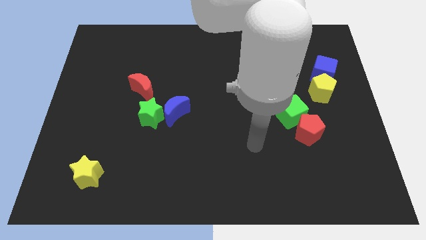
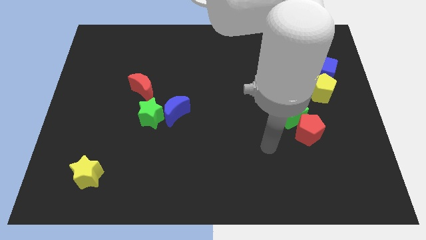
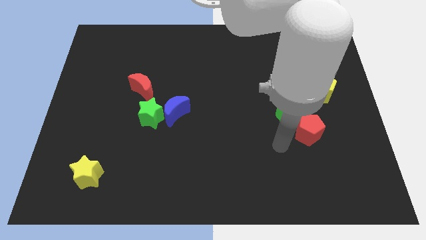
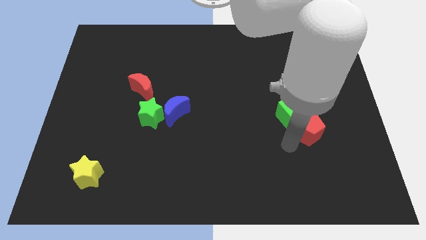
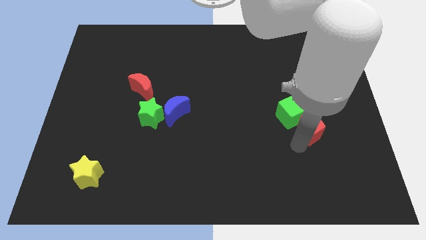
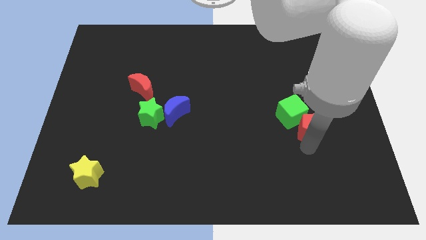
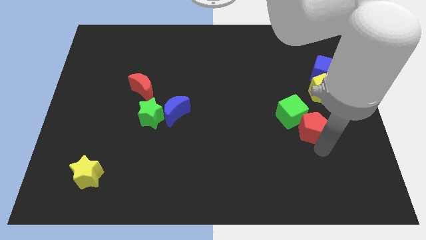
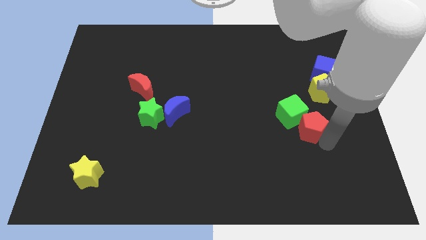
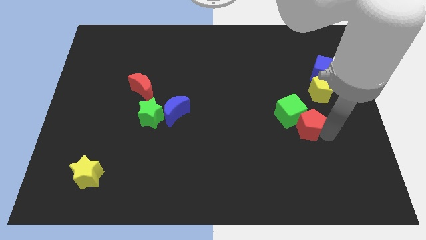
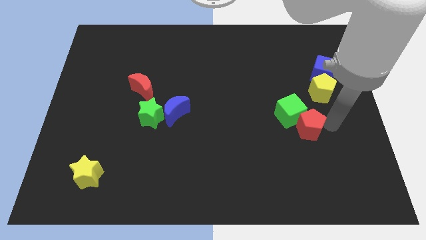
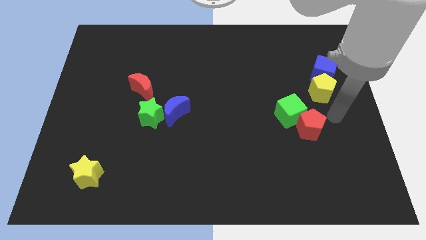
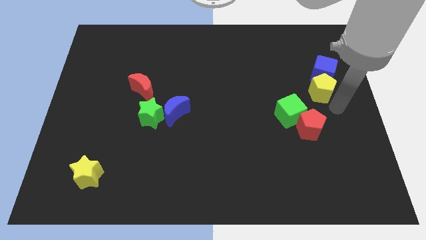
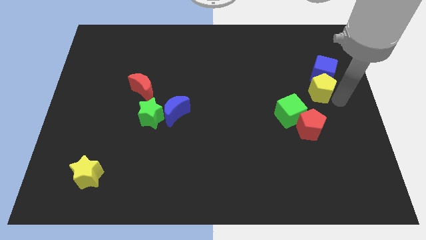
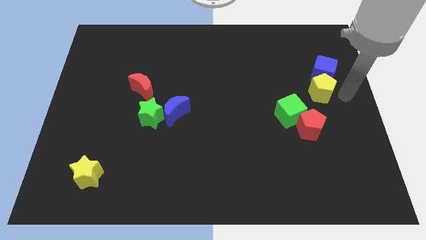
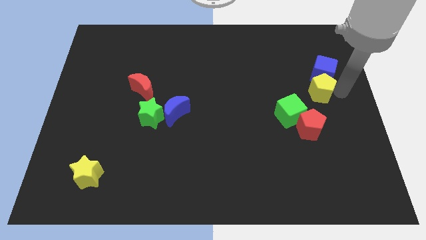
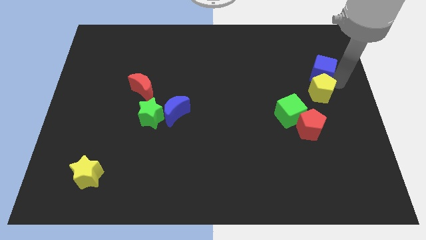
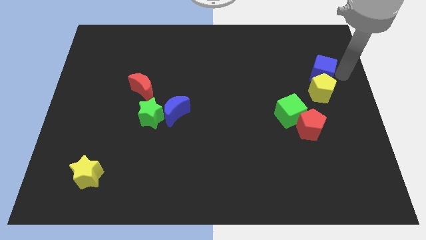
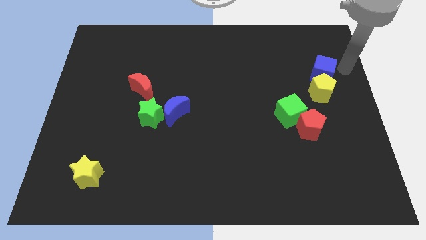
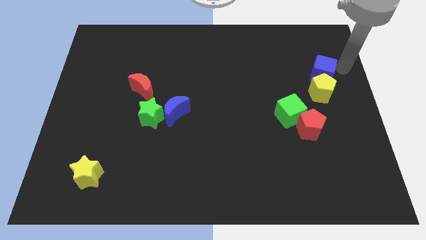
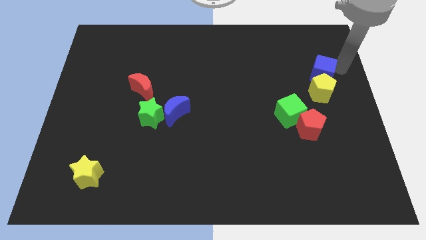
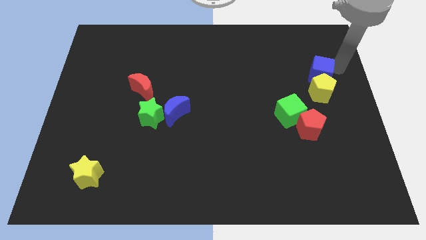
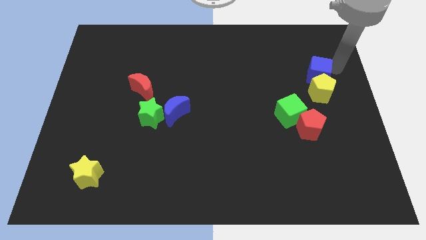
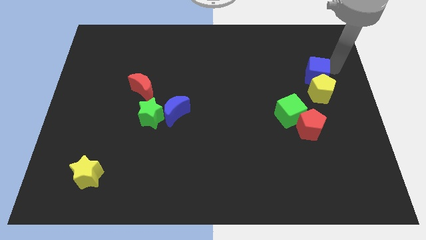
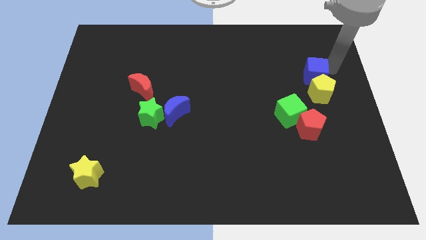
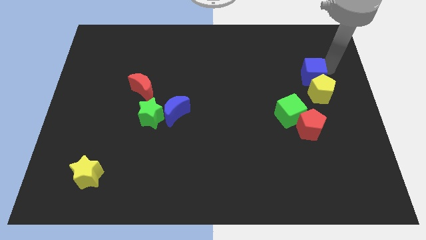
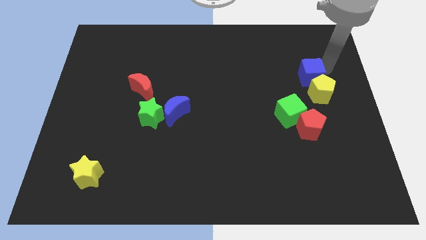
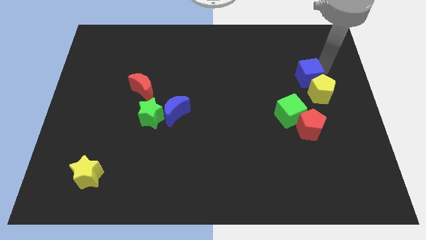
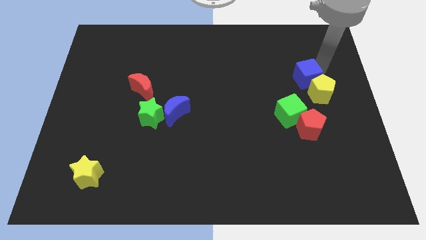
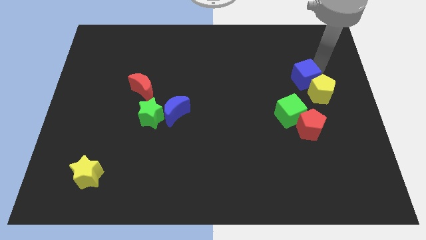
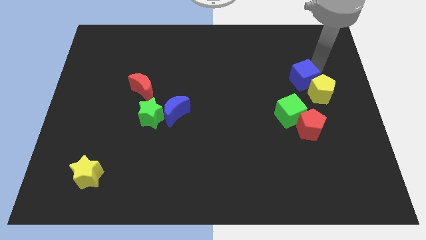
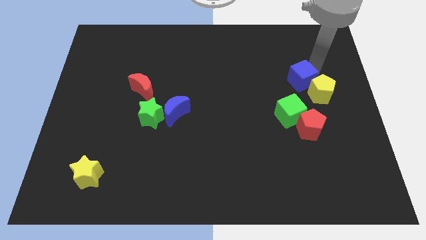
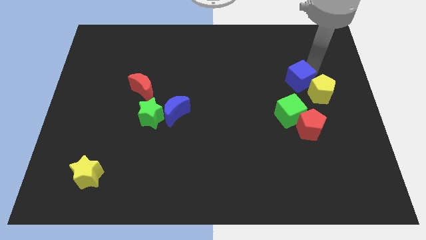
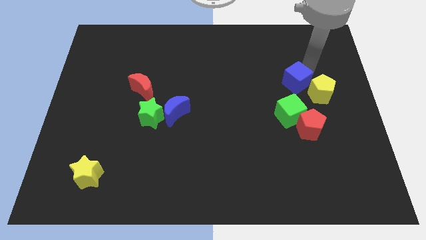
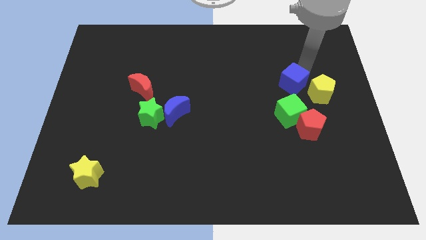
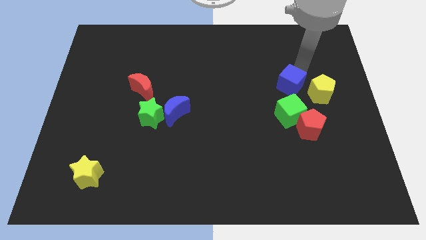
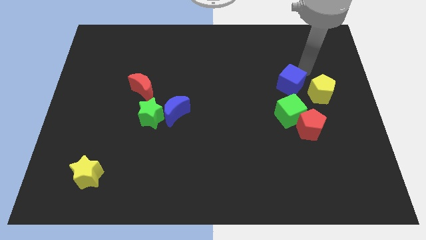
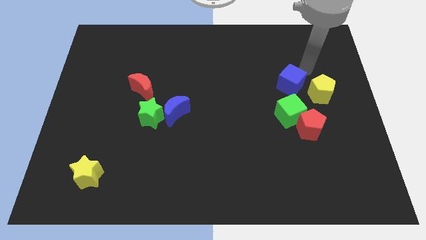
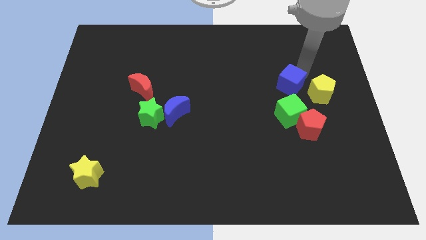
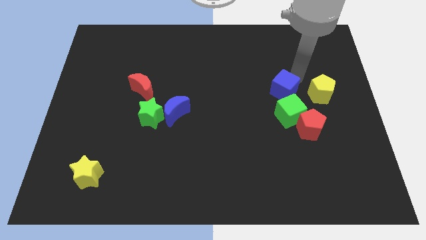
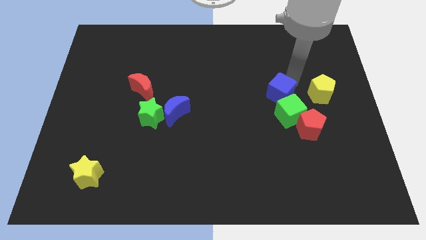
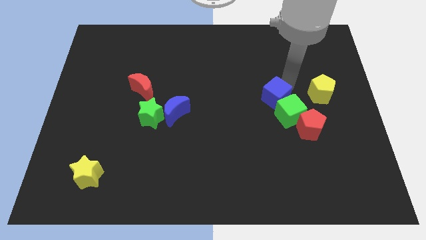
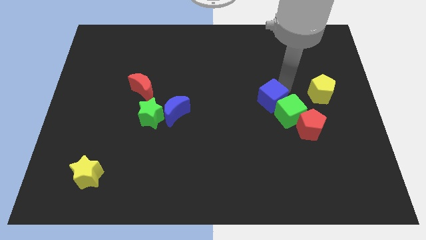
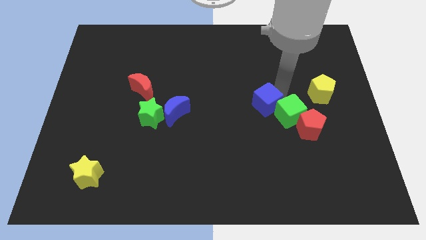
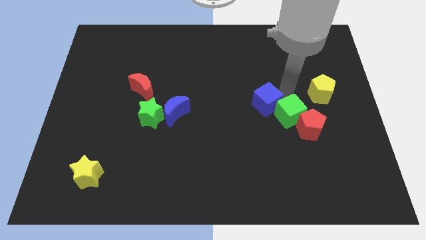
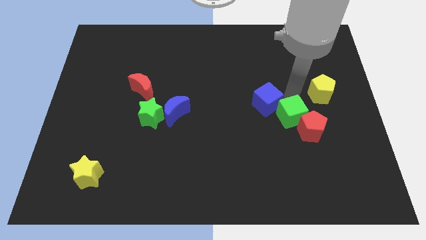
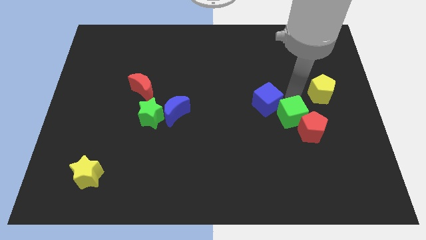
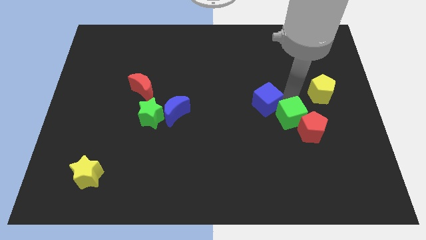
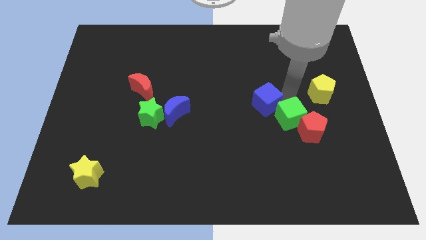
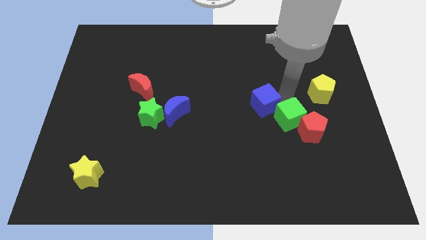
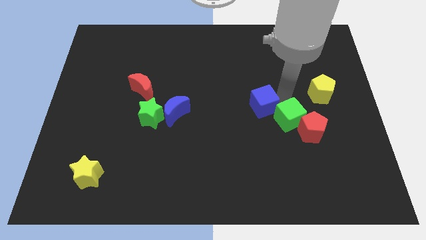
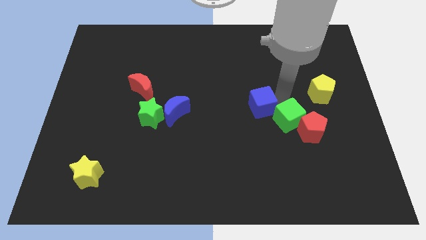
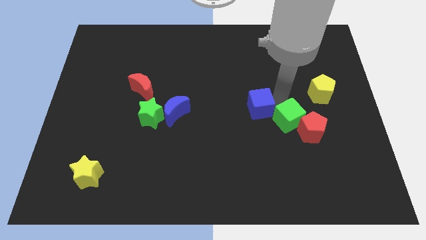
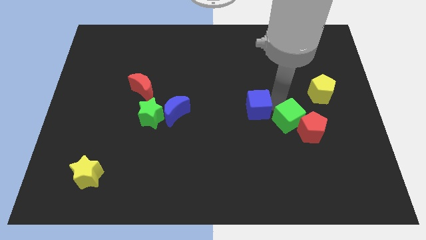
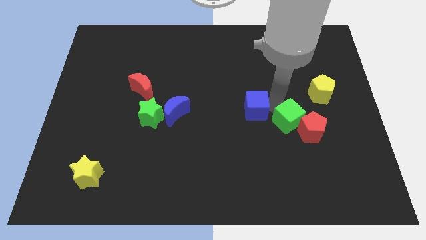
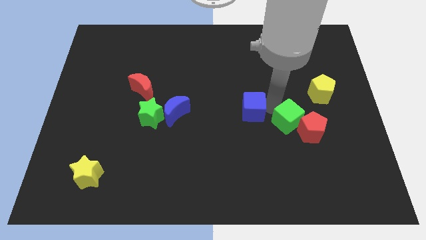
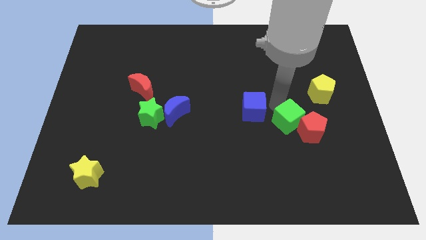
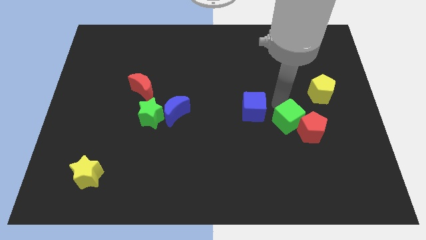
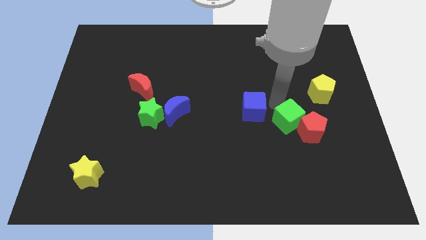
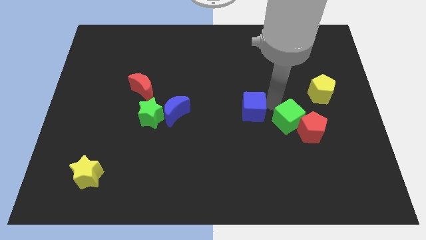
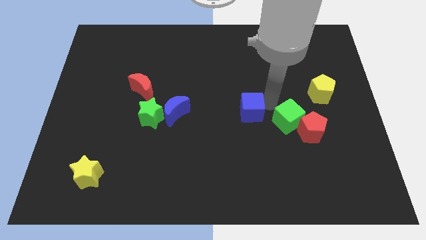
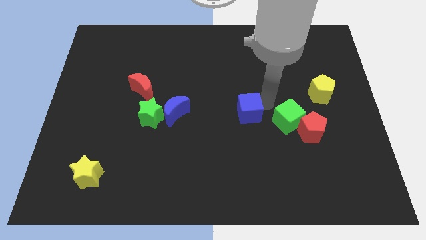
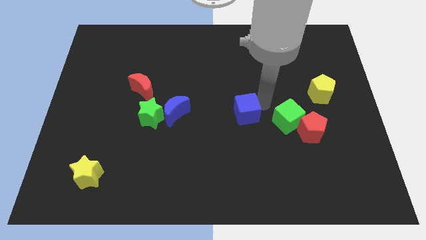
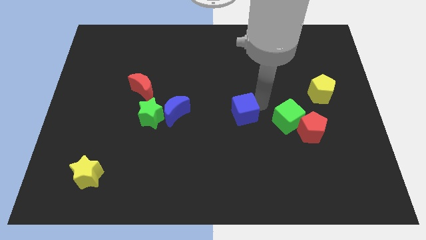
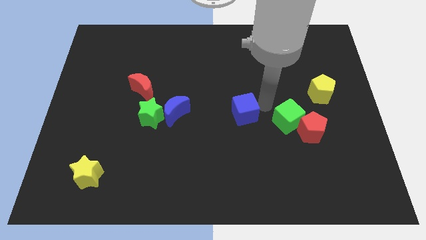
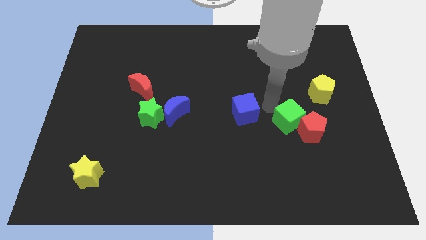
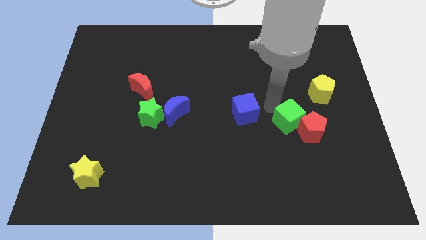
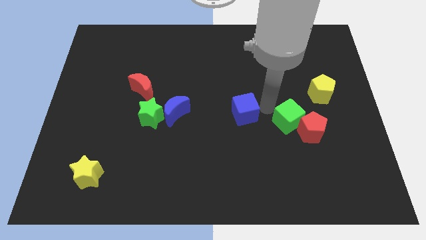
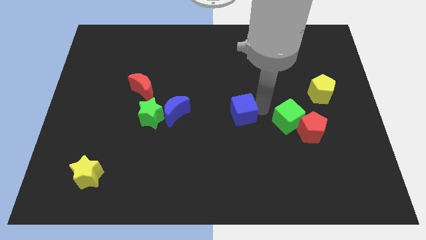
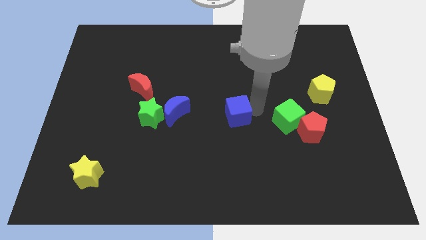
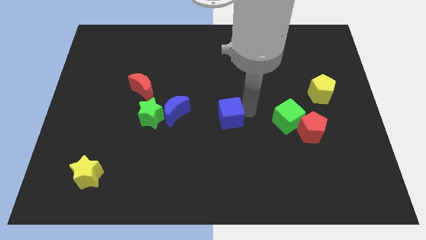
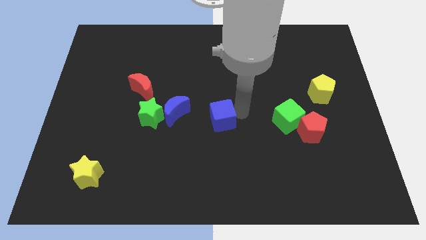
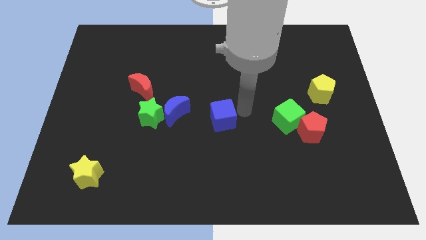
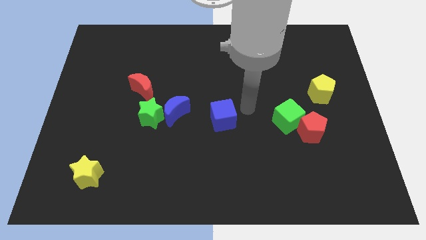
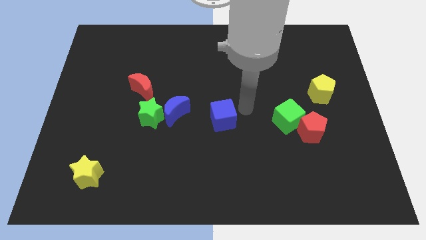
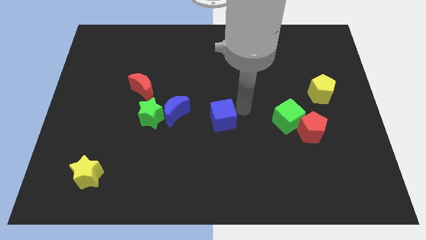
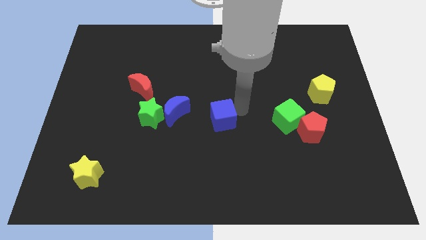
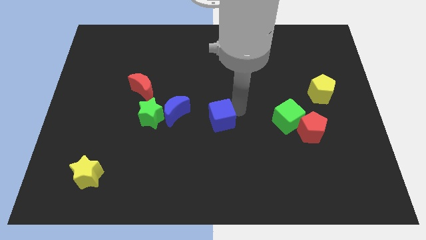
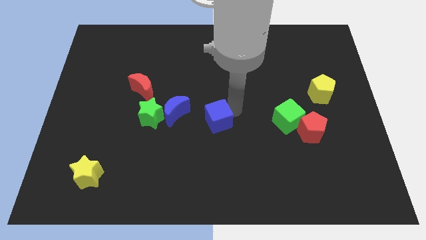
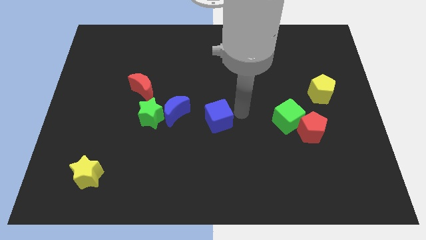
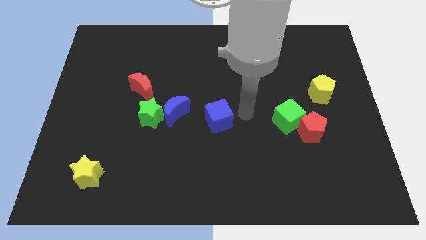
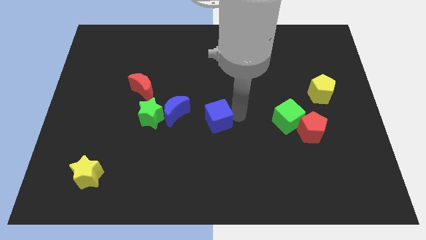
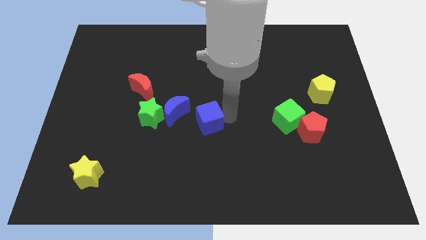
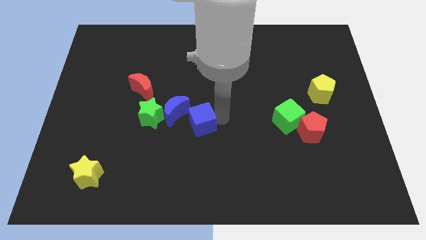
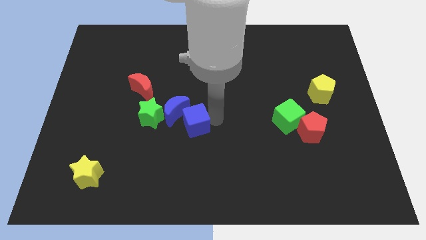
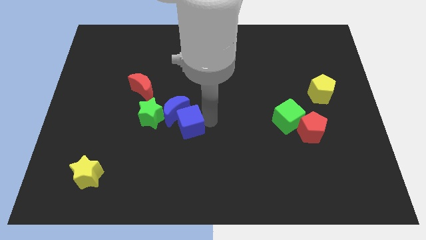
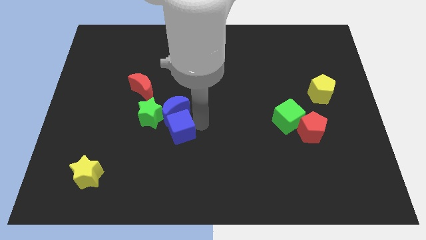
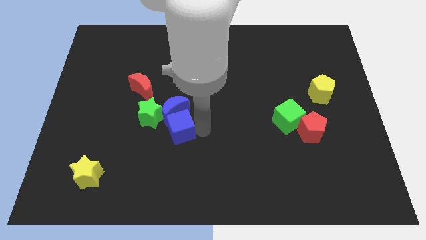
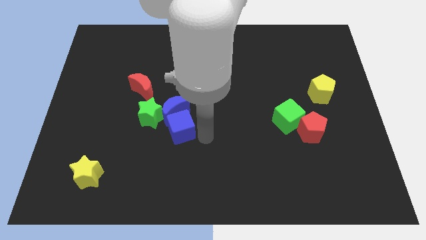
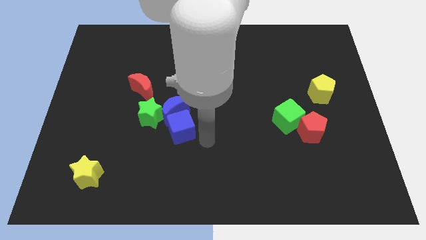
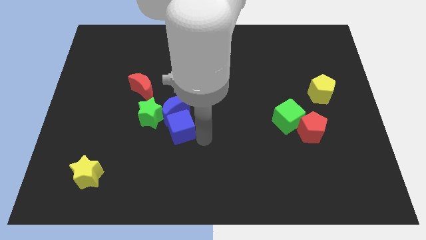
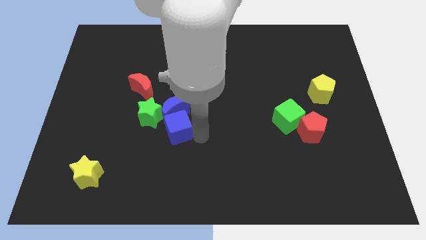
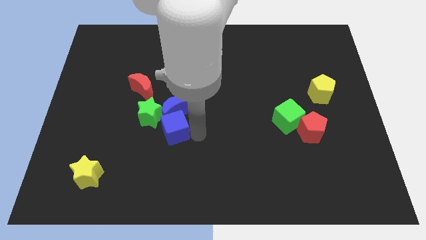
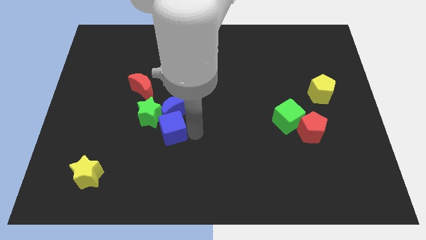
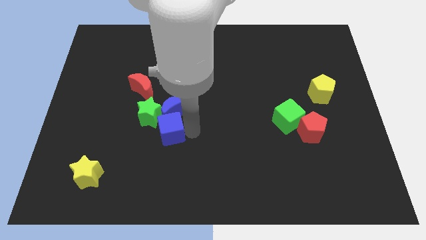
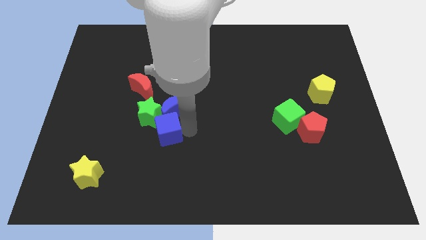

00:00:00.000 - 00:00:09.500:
put the blue cube towards the green star
